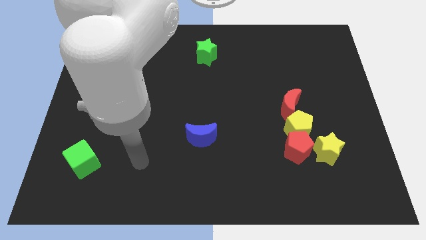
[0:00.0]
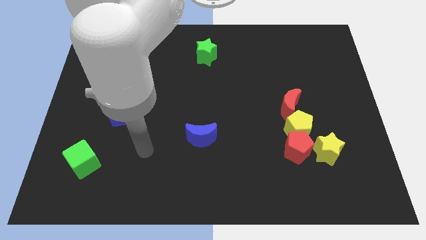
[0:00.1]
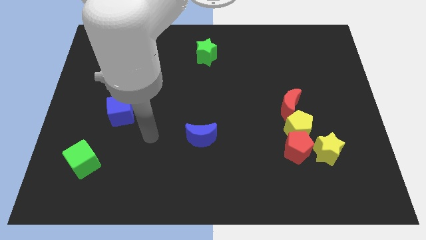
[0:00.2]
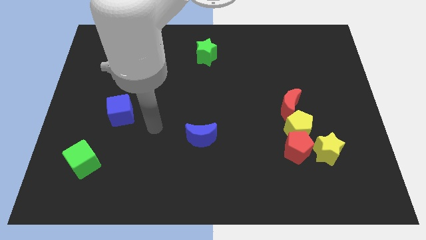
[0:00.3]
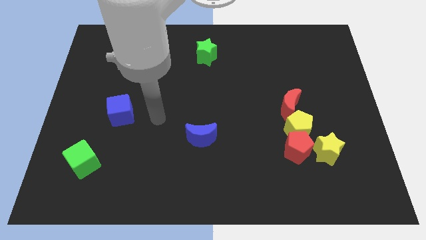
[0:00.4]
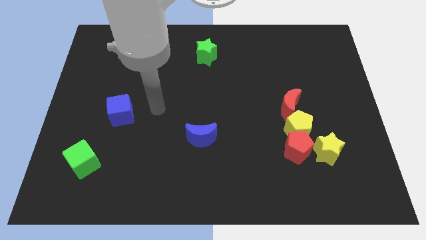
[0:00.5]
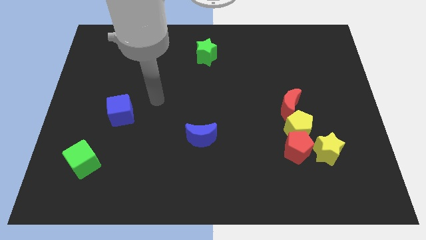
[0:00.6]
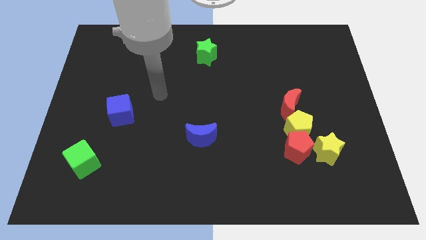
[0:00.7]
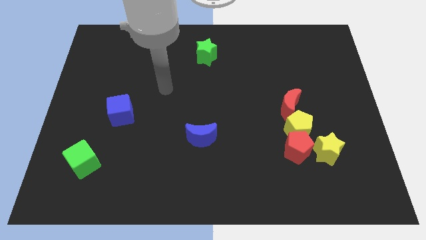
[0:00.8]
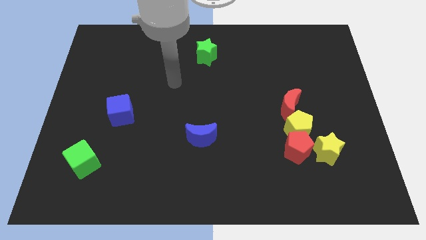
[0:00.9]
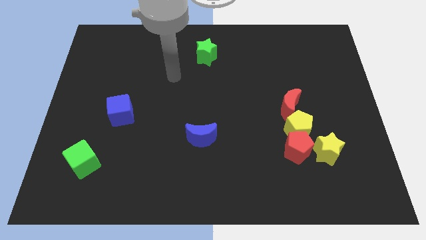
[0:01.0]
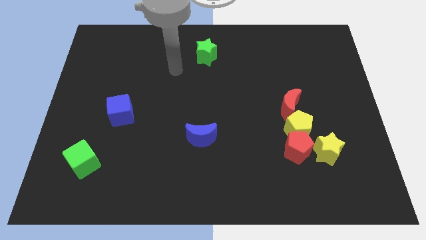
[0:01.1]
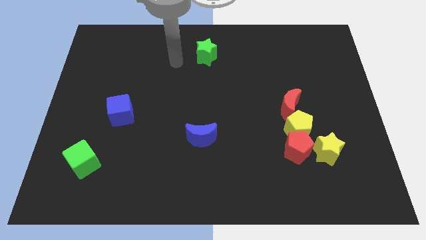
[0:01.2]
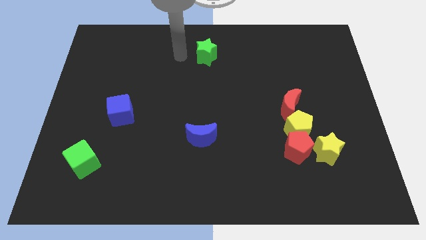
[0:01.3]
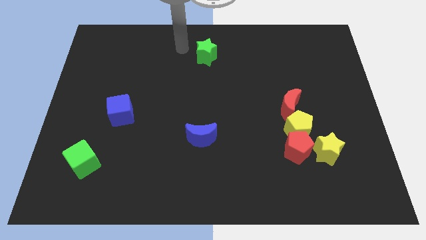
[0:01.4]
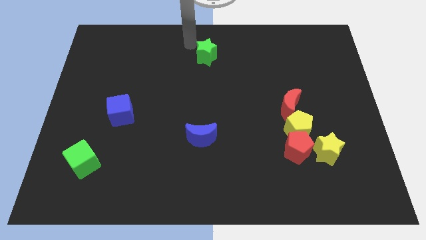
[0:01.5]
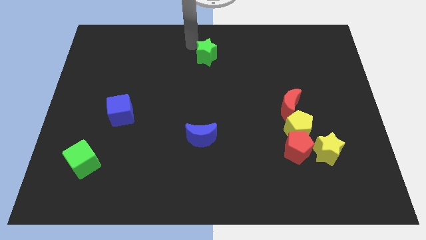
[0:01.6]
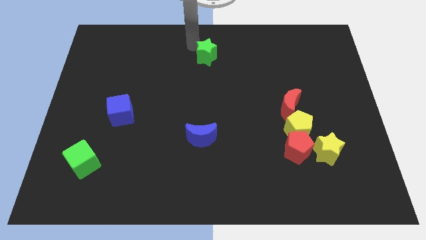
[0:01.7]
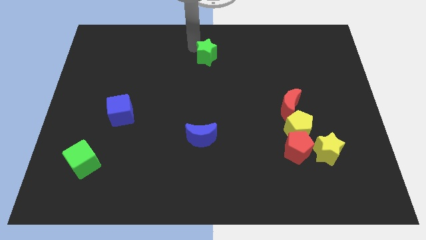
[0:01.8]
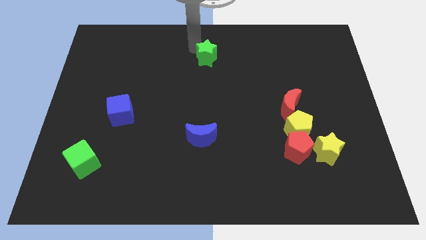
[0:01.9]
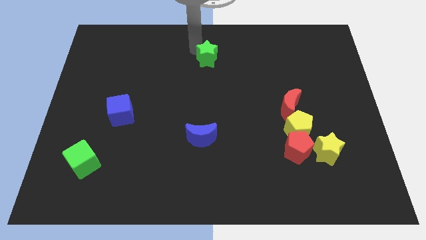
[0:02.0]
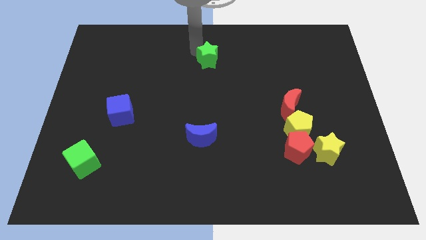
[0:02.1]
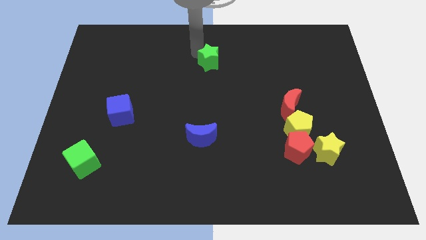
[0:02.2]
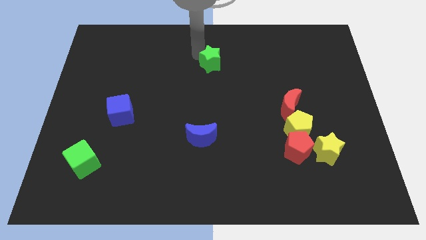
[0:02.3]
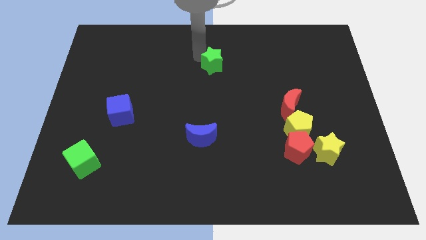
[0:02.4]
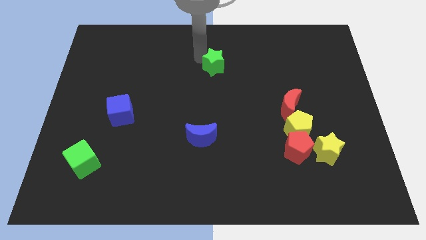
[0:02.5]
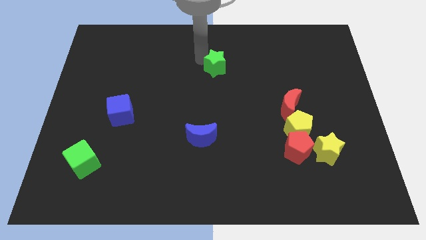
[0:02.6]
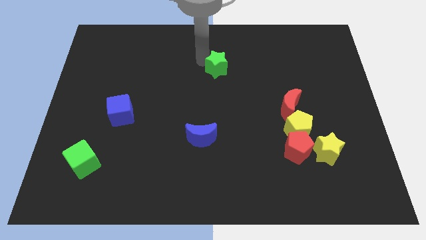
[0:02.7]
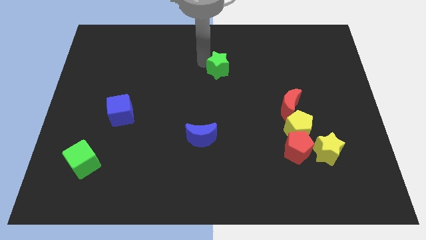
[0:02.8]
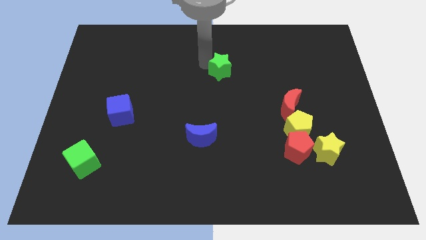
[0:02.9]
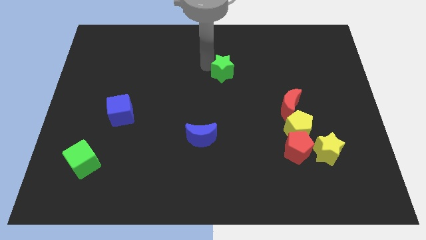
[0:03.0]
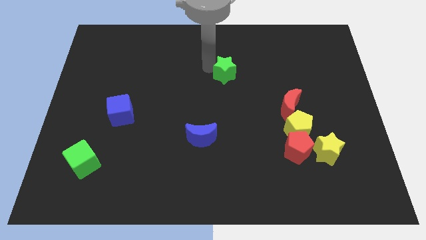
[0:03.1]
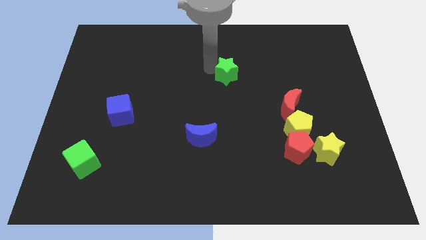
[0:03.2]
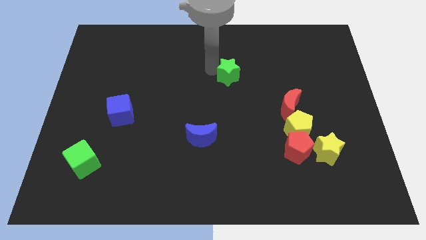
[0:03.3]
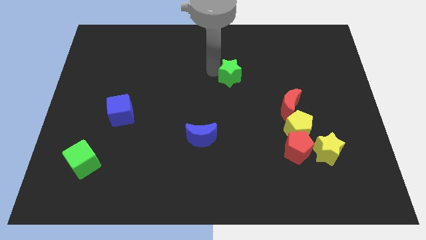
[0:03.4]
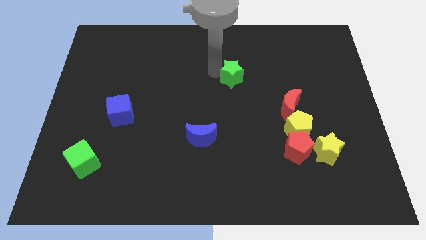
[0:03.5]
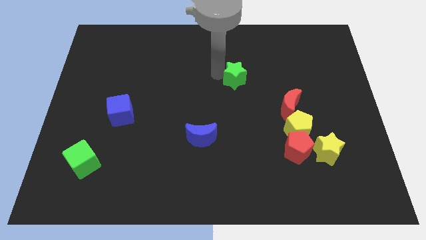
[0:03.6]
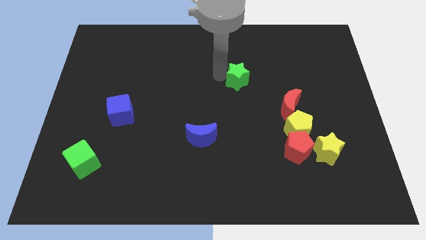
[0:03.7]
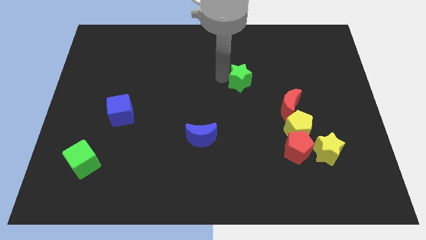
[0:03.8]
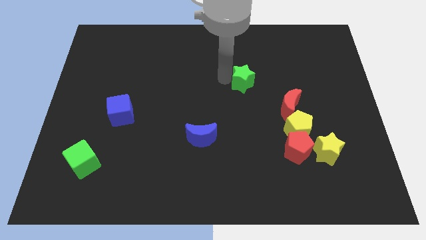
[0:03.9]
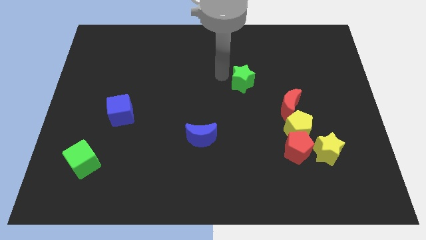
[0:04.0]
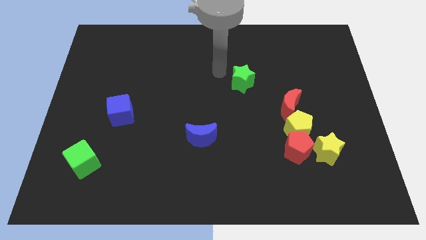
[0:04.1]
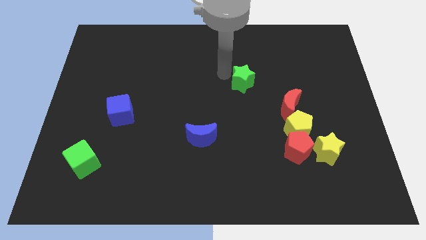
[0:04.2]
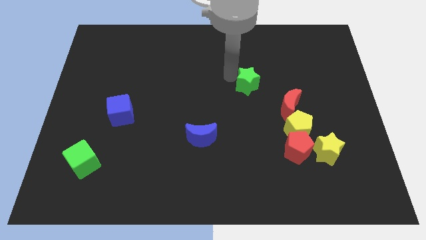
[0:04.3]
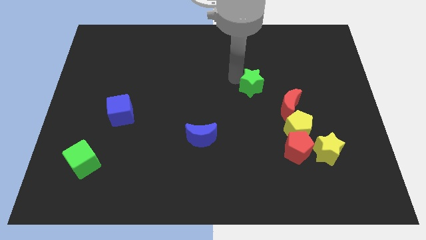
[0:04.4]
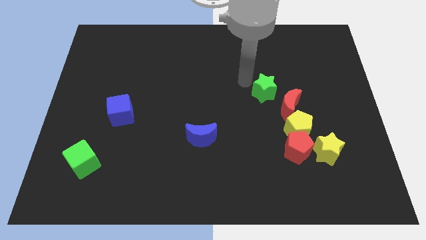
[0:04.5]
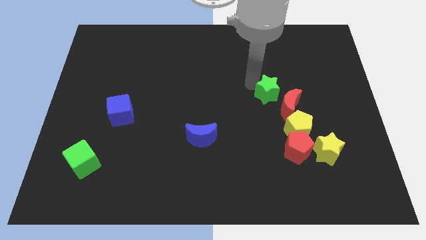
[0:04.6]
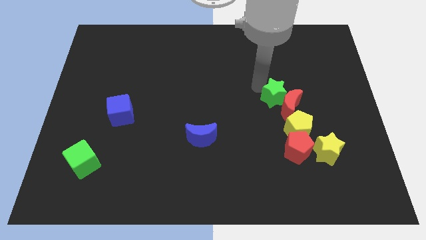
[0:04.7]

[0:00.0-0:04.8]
slide the green star close to the red moon

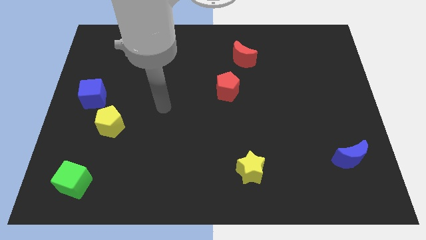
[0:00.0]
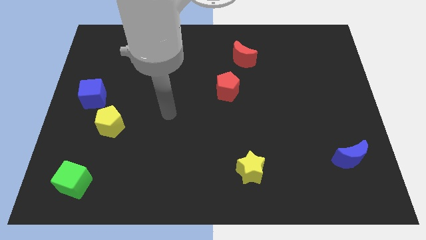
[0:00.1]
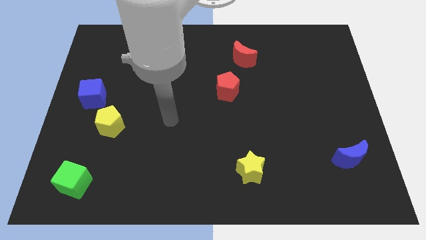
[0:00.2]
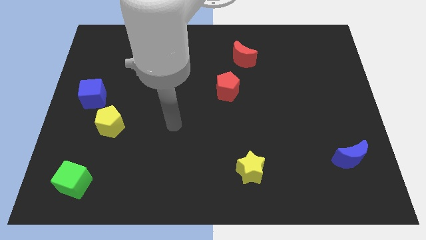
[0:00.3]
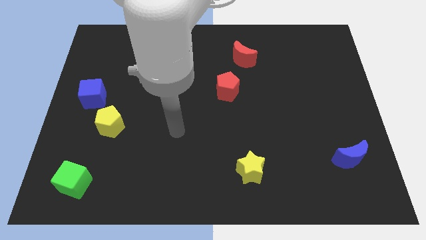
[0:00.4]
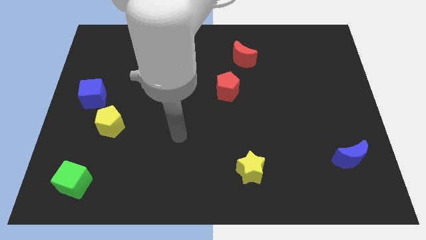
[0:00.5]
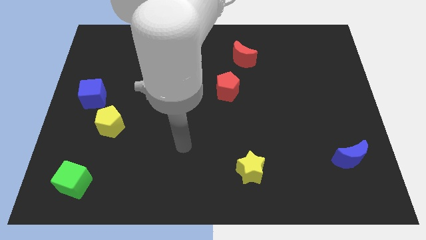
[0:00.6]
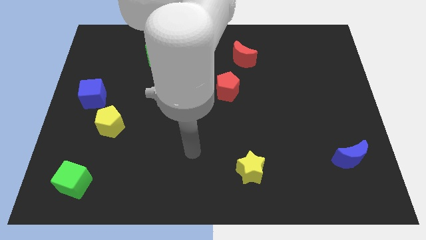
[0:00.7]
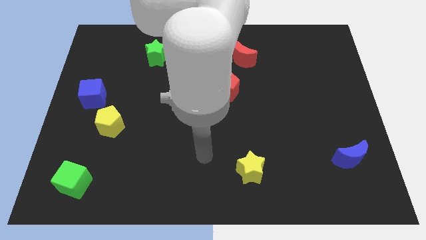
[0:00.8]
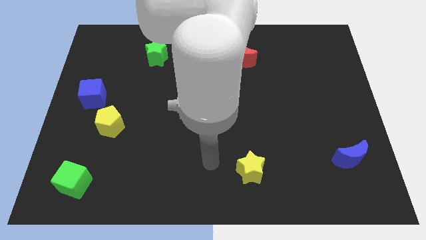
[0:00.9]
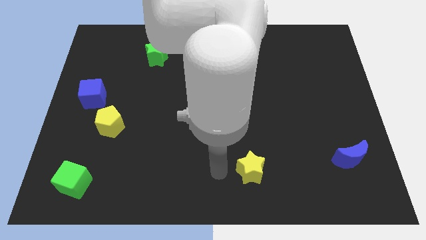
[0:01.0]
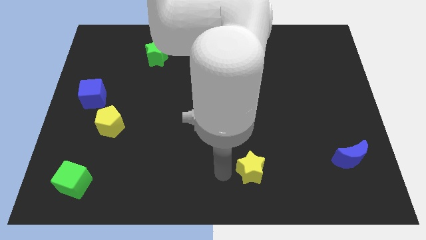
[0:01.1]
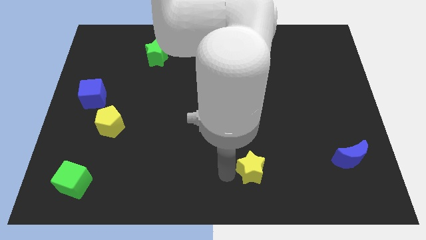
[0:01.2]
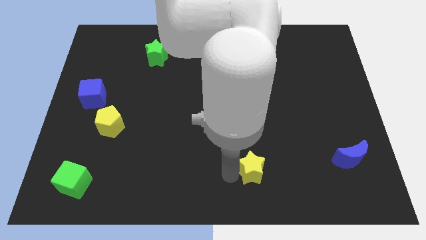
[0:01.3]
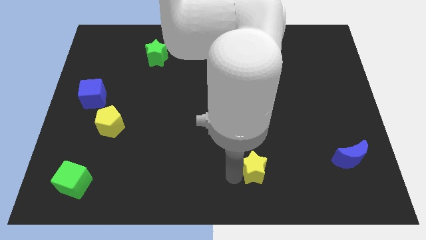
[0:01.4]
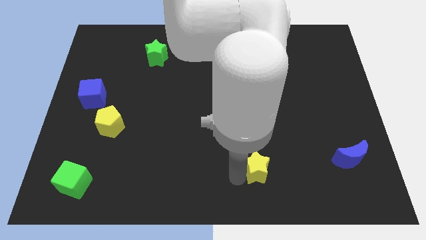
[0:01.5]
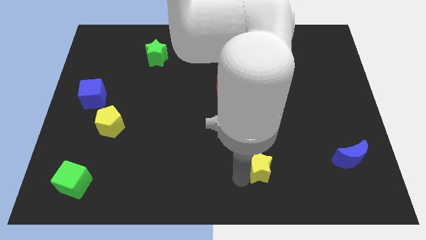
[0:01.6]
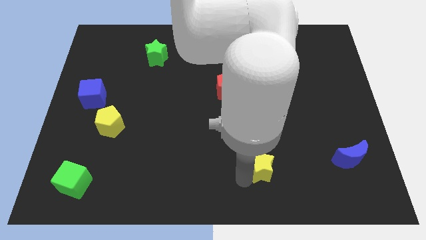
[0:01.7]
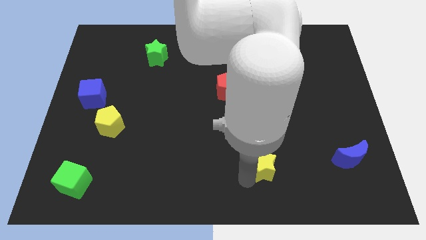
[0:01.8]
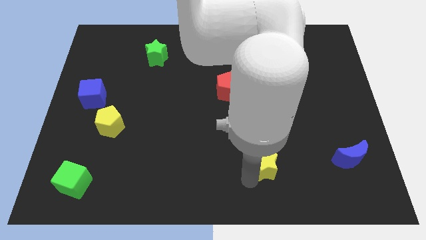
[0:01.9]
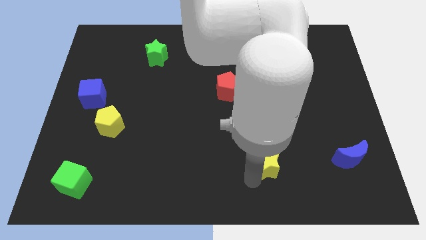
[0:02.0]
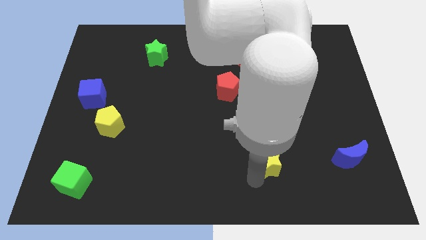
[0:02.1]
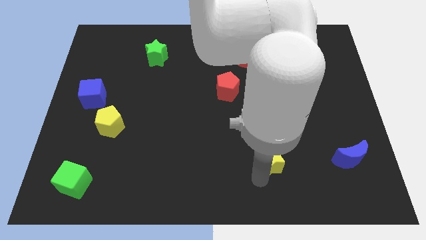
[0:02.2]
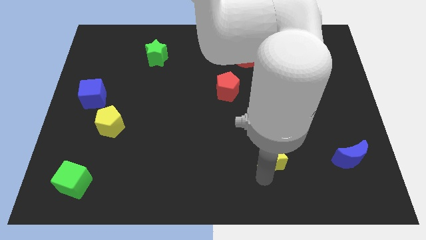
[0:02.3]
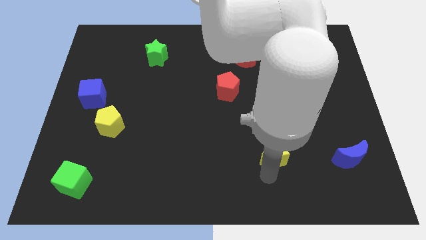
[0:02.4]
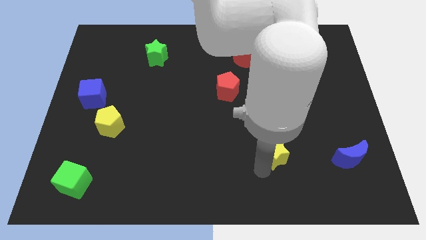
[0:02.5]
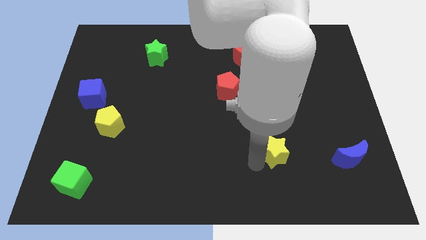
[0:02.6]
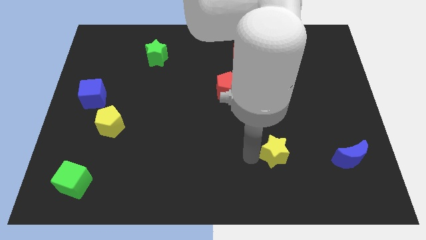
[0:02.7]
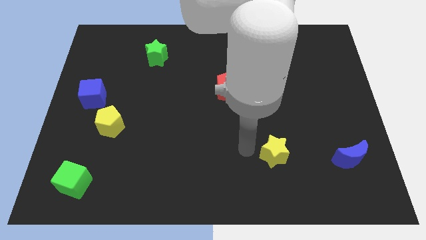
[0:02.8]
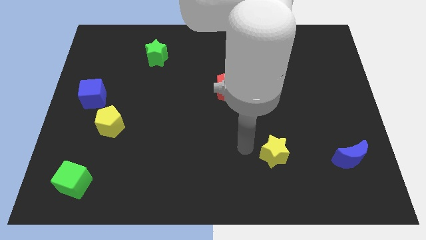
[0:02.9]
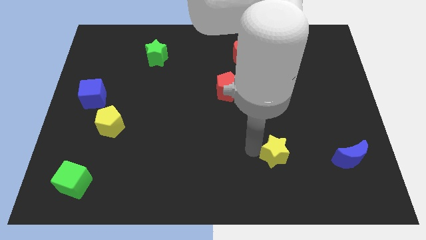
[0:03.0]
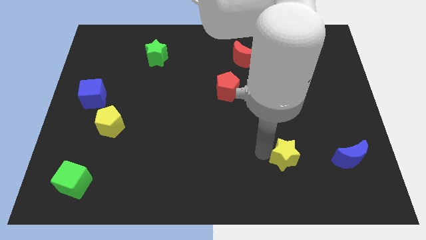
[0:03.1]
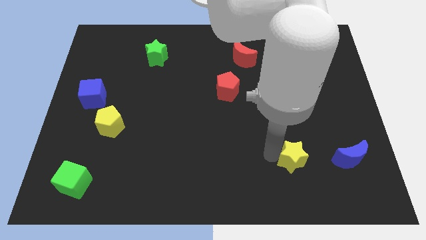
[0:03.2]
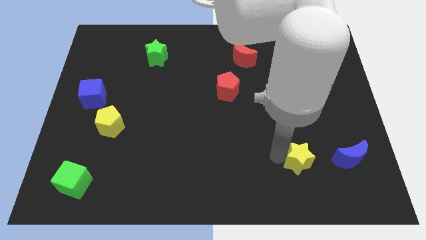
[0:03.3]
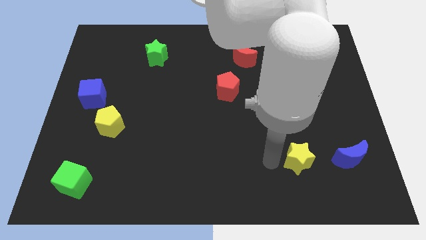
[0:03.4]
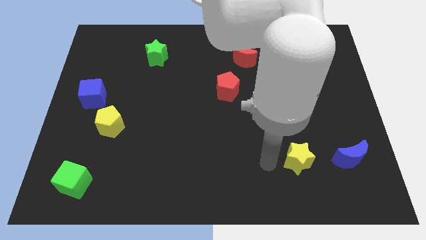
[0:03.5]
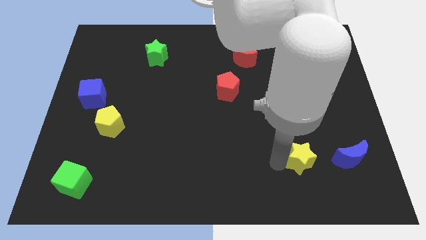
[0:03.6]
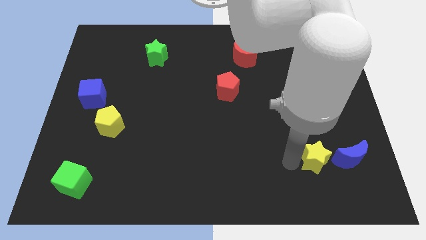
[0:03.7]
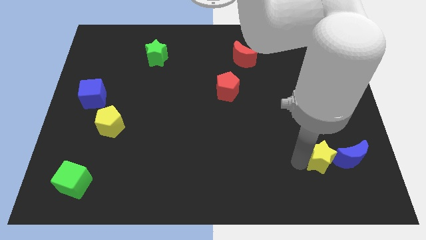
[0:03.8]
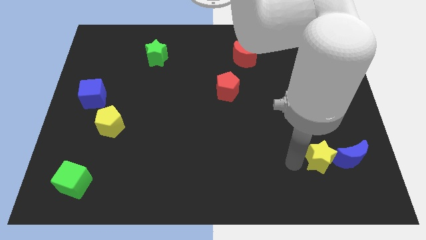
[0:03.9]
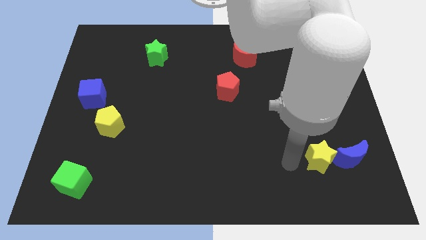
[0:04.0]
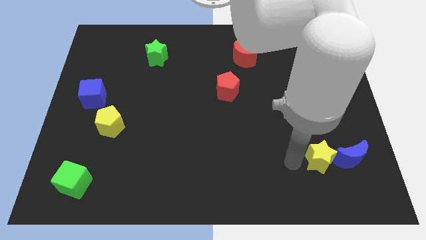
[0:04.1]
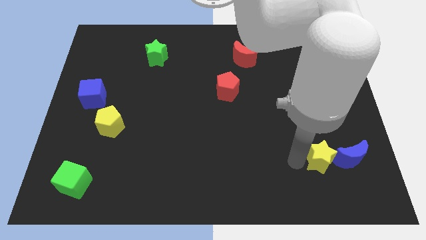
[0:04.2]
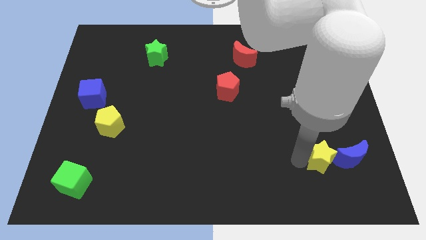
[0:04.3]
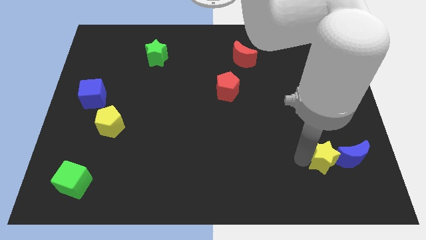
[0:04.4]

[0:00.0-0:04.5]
move the yellow star towards the blue moon
